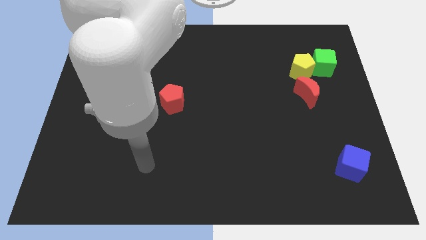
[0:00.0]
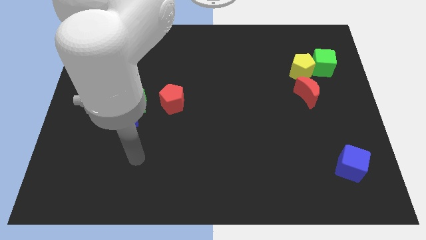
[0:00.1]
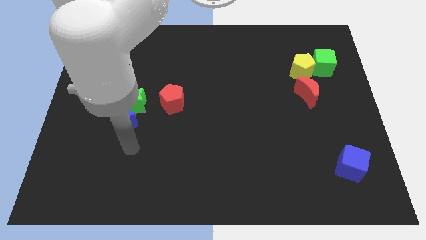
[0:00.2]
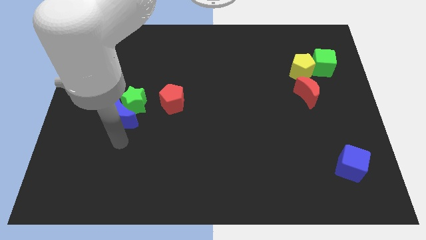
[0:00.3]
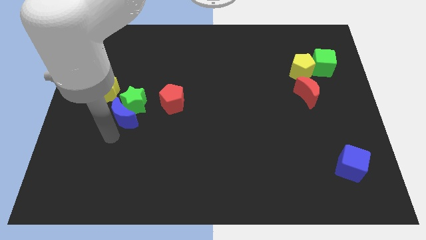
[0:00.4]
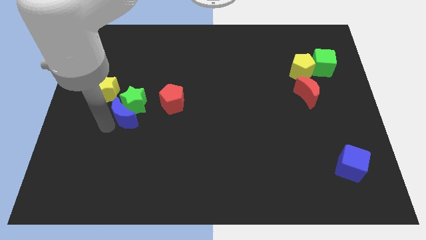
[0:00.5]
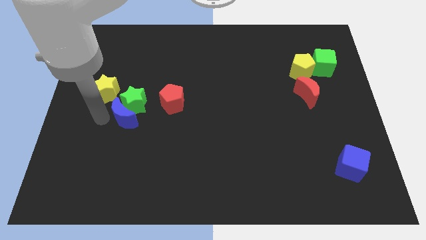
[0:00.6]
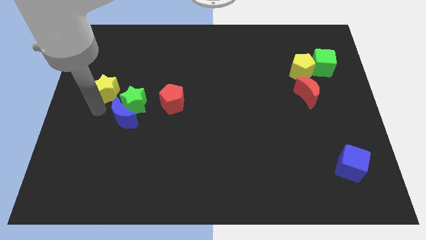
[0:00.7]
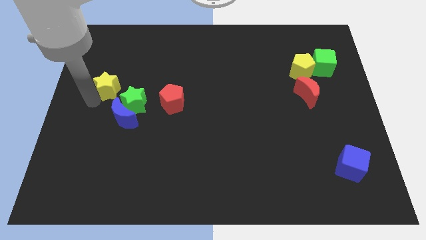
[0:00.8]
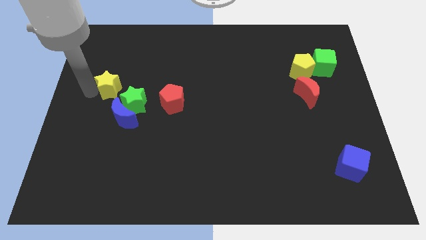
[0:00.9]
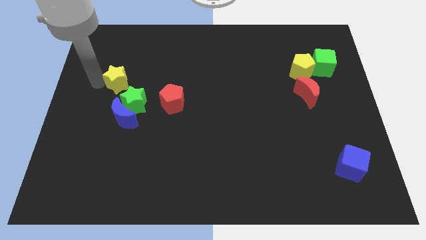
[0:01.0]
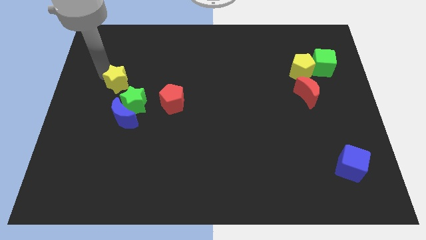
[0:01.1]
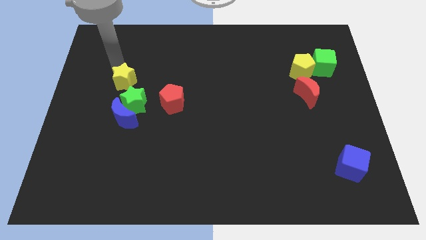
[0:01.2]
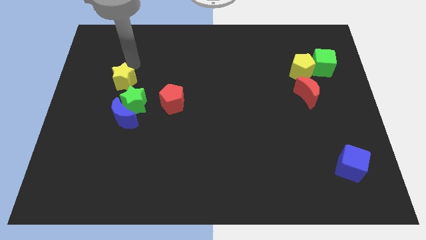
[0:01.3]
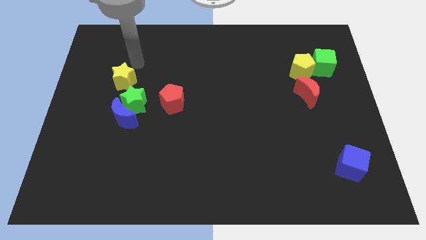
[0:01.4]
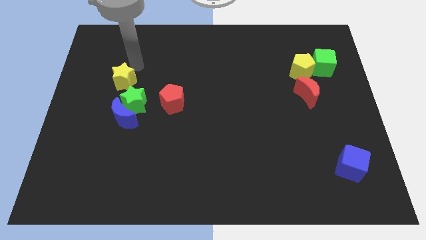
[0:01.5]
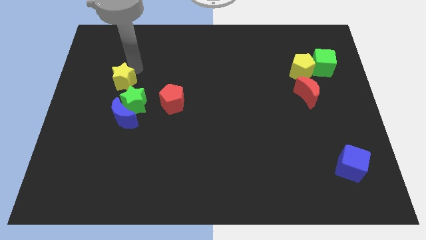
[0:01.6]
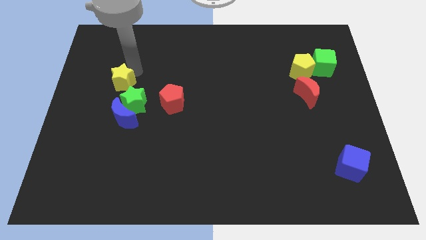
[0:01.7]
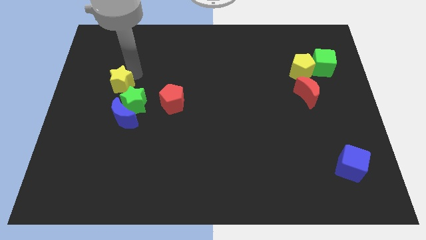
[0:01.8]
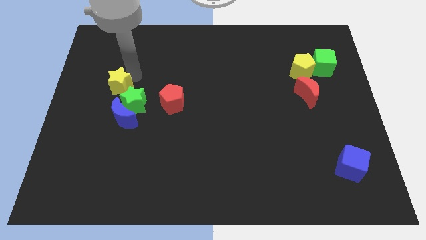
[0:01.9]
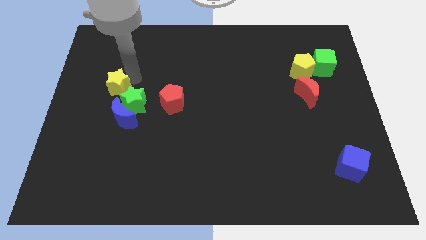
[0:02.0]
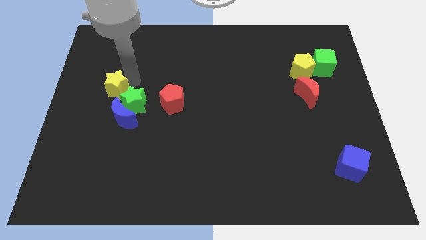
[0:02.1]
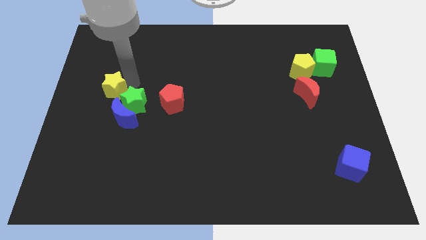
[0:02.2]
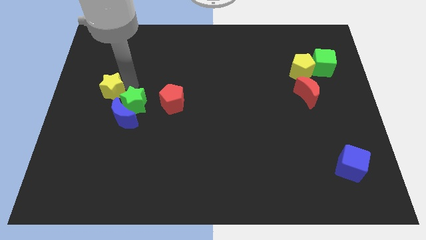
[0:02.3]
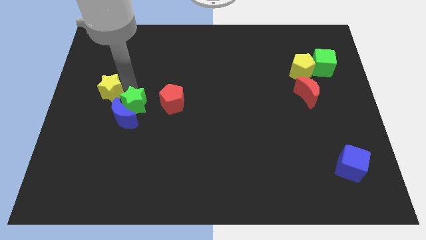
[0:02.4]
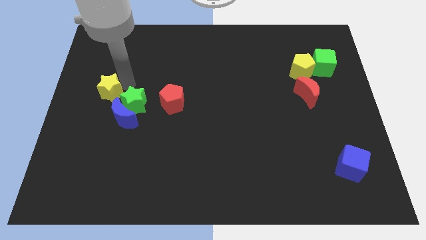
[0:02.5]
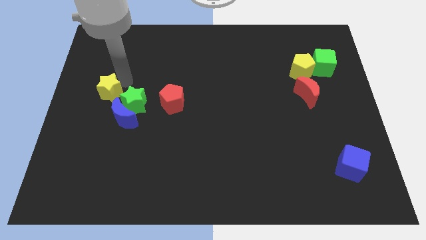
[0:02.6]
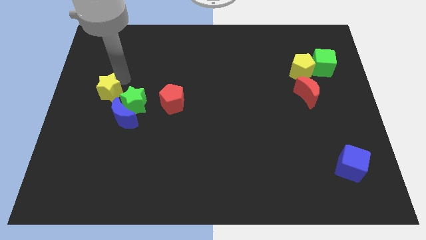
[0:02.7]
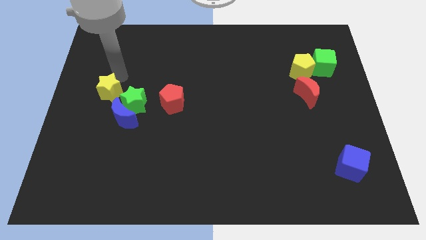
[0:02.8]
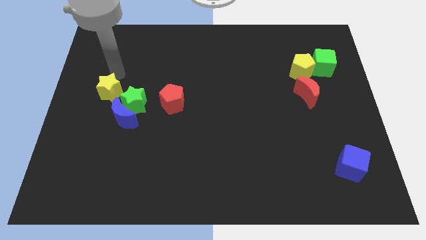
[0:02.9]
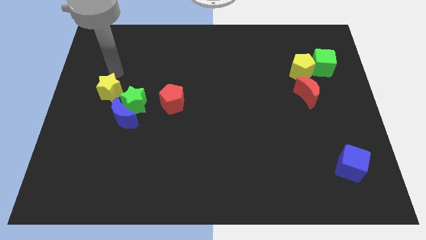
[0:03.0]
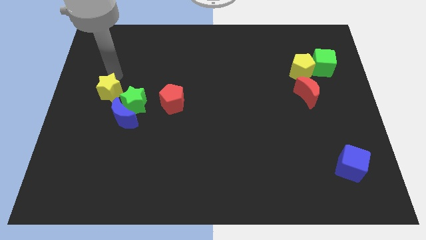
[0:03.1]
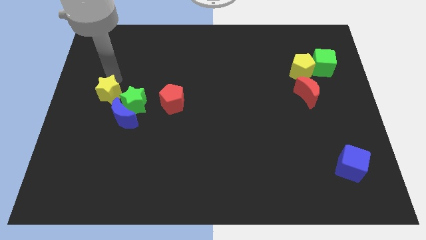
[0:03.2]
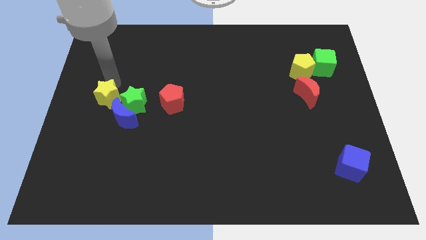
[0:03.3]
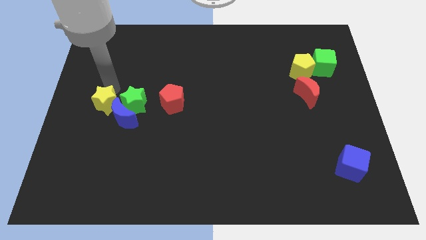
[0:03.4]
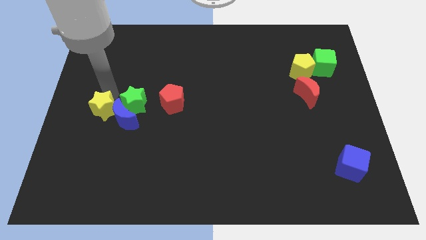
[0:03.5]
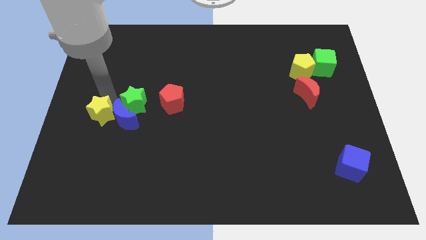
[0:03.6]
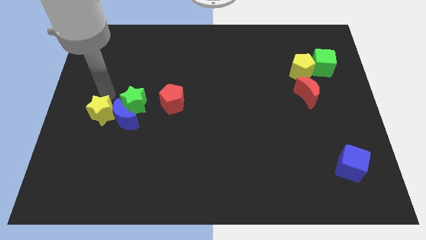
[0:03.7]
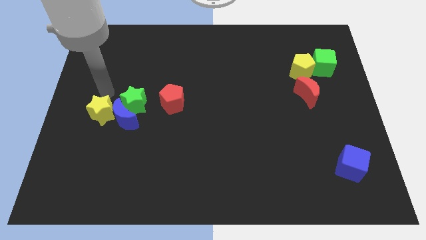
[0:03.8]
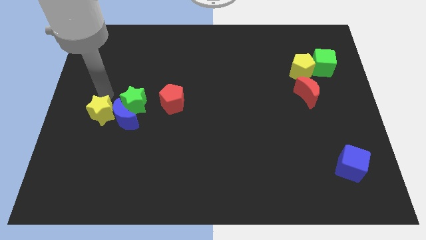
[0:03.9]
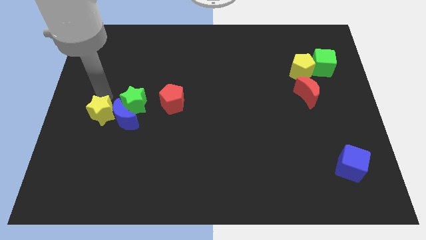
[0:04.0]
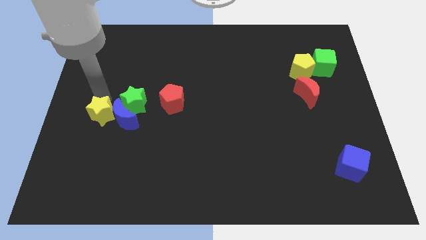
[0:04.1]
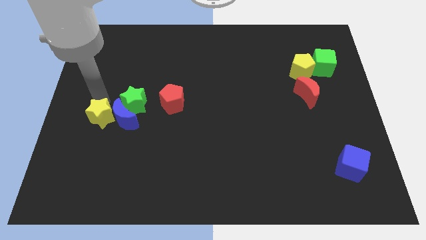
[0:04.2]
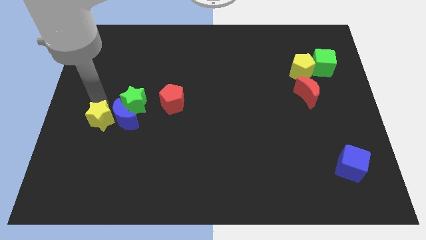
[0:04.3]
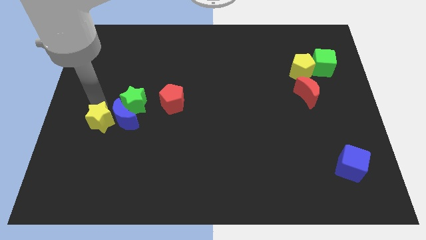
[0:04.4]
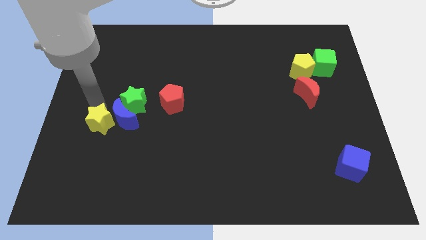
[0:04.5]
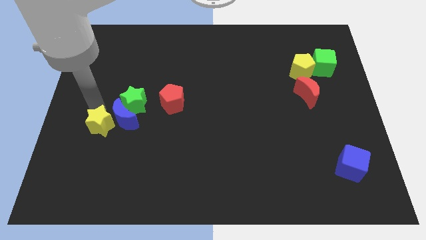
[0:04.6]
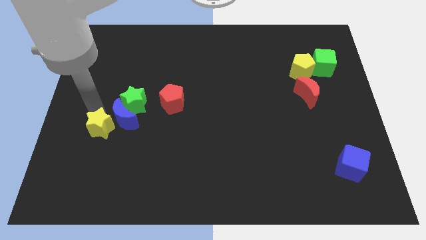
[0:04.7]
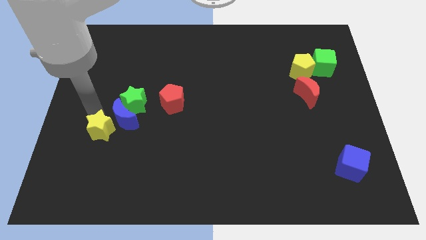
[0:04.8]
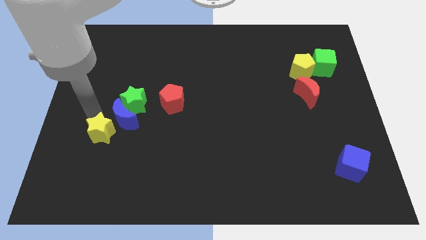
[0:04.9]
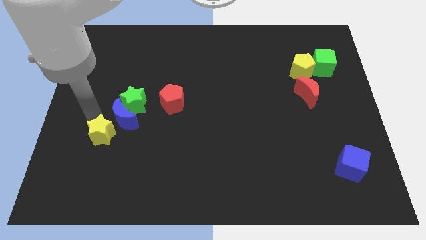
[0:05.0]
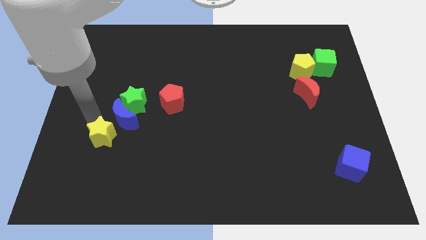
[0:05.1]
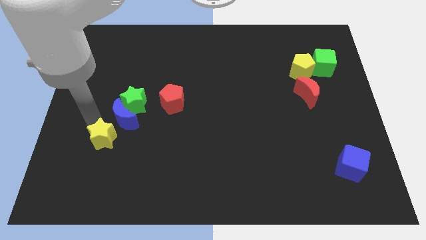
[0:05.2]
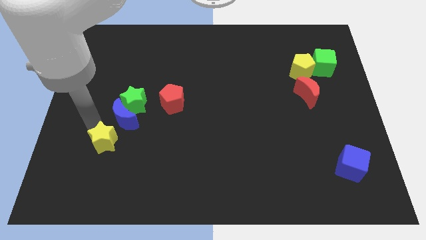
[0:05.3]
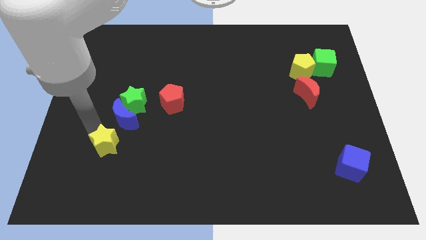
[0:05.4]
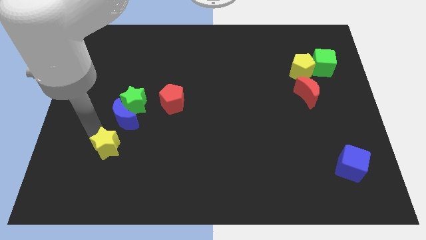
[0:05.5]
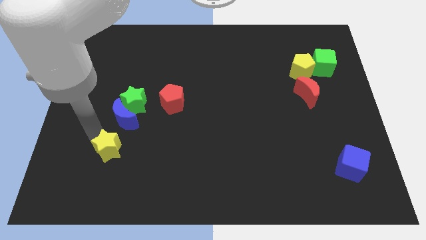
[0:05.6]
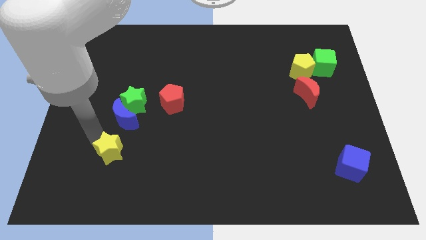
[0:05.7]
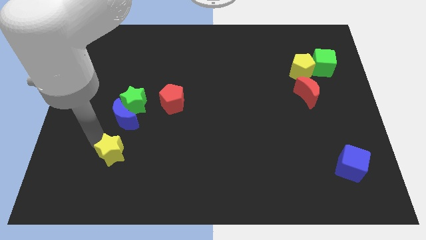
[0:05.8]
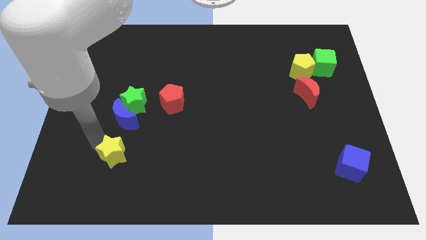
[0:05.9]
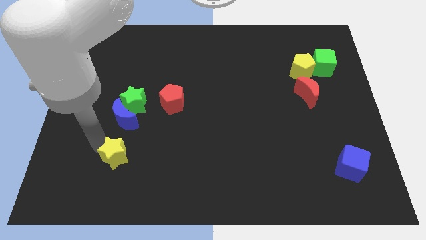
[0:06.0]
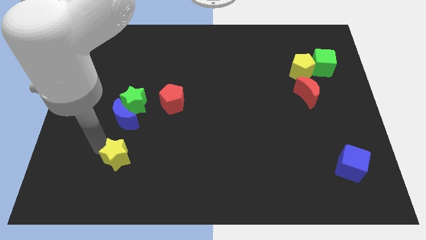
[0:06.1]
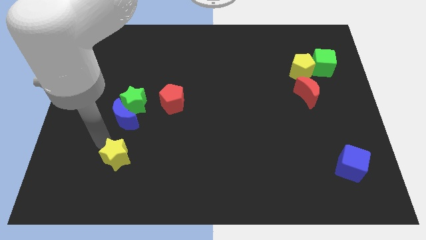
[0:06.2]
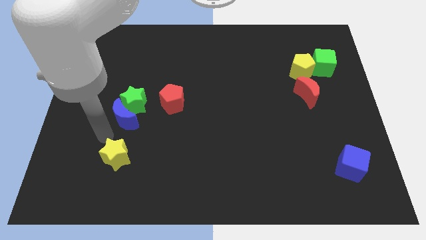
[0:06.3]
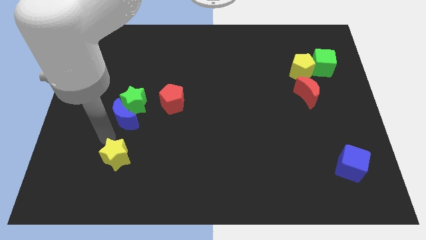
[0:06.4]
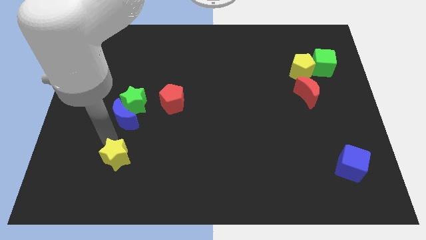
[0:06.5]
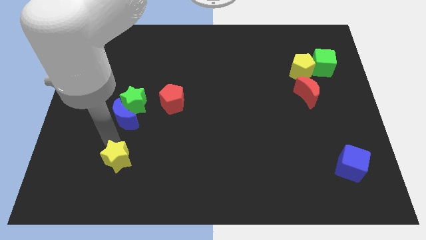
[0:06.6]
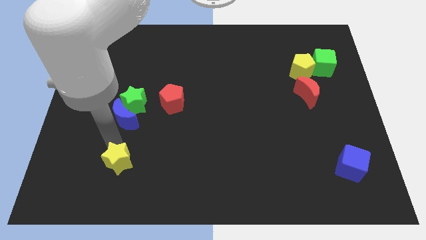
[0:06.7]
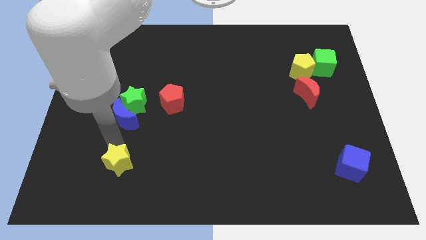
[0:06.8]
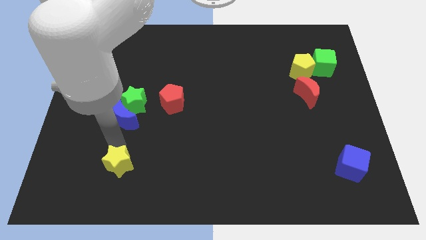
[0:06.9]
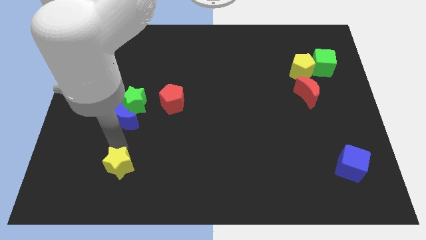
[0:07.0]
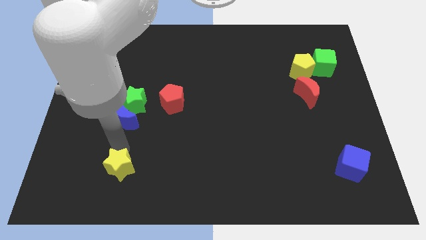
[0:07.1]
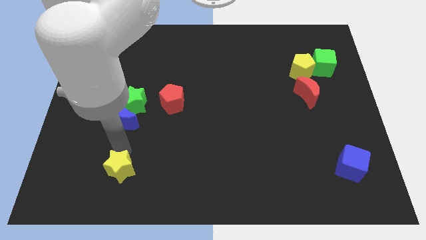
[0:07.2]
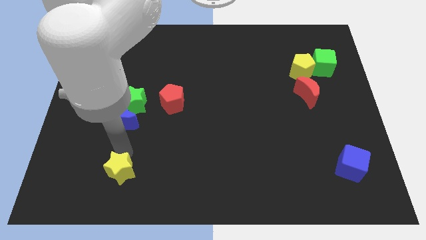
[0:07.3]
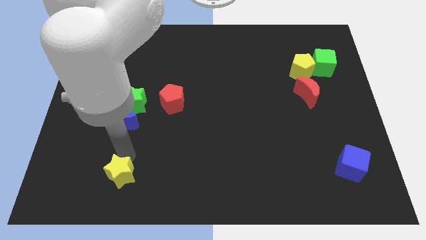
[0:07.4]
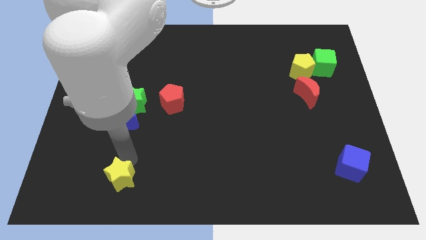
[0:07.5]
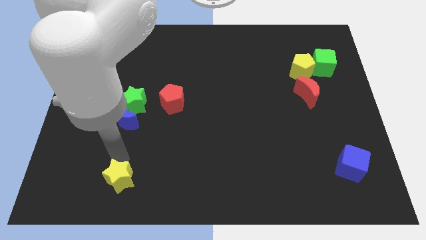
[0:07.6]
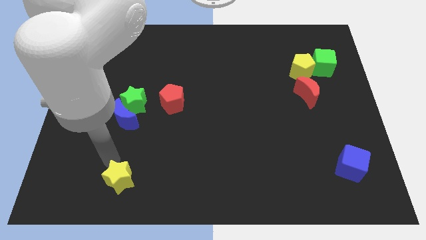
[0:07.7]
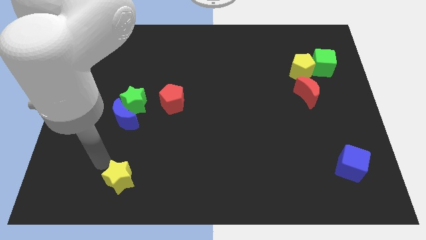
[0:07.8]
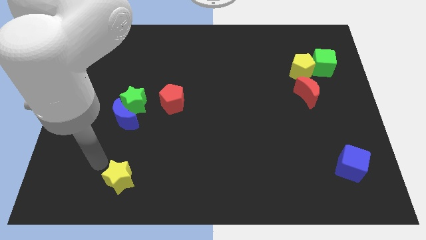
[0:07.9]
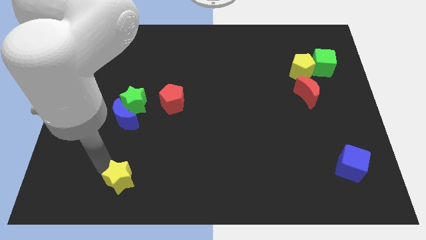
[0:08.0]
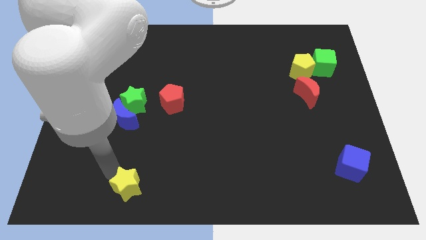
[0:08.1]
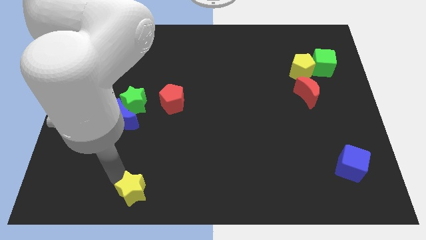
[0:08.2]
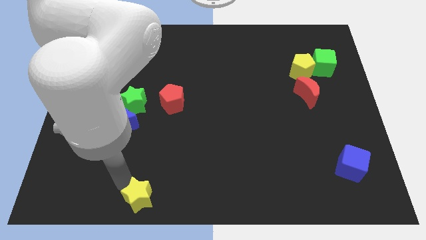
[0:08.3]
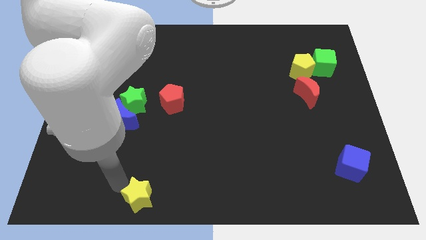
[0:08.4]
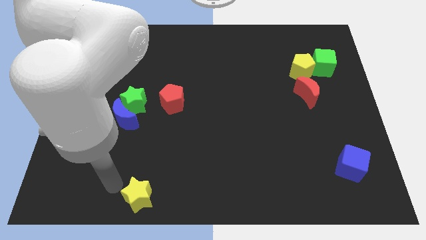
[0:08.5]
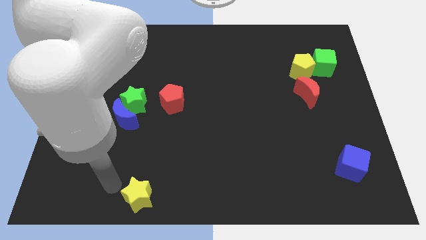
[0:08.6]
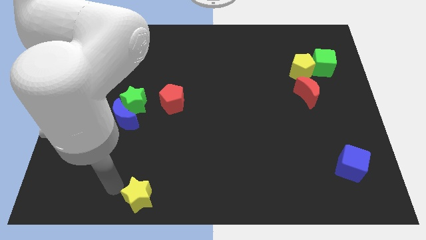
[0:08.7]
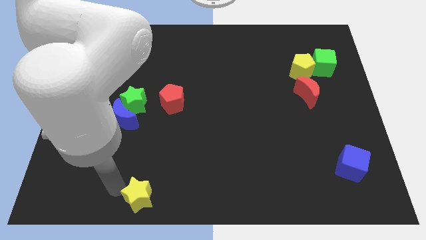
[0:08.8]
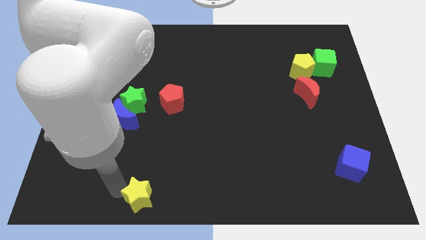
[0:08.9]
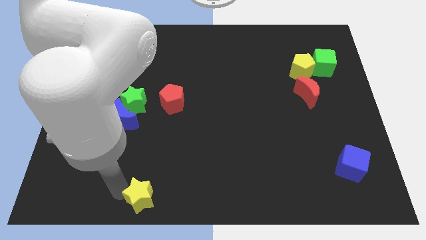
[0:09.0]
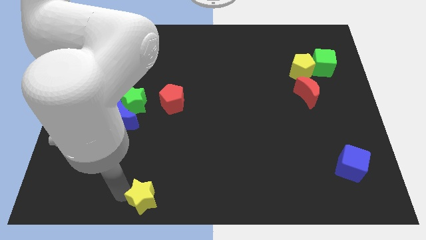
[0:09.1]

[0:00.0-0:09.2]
put the yellow star to the bottom side
